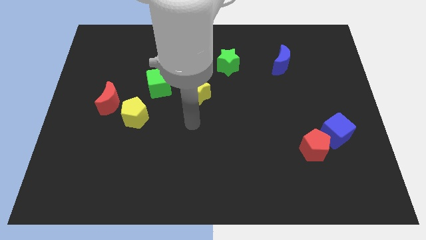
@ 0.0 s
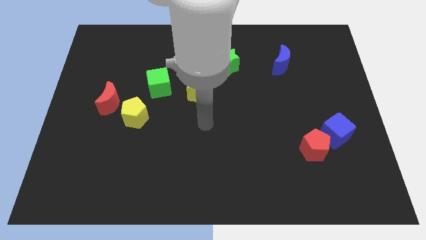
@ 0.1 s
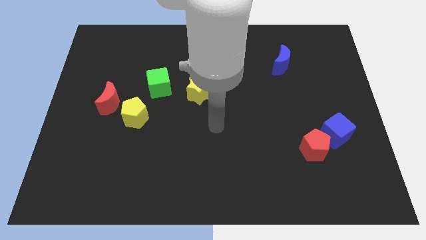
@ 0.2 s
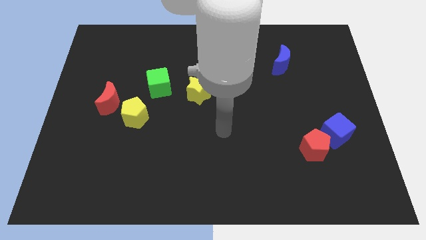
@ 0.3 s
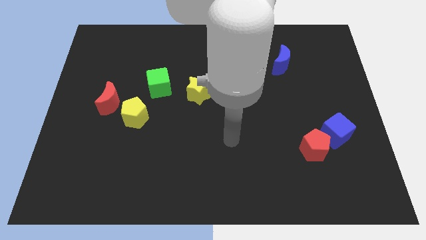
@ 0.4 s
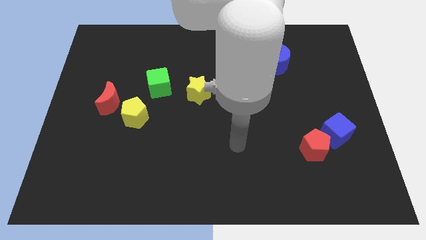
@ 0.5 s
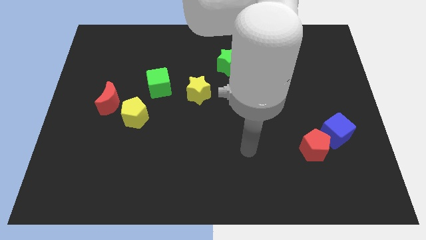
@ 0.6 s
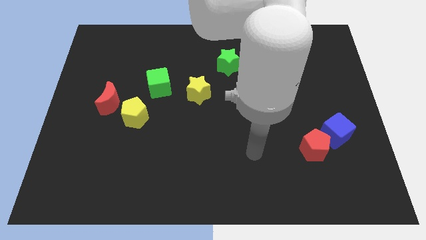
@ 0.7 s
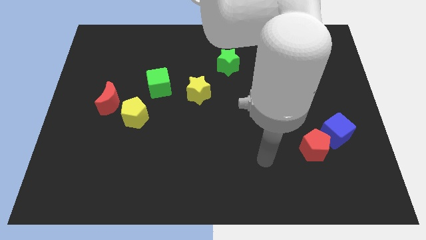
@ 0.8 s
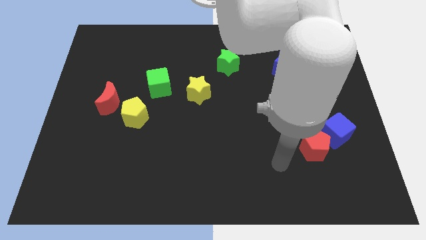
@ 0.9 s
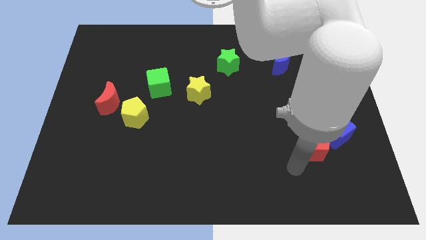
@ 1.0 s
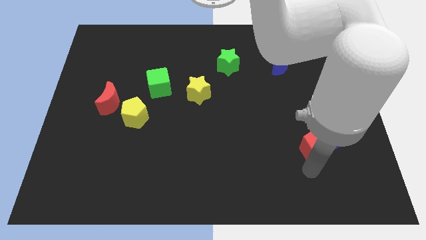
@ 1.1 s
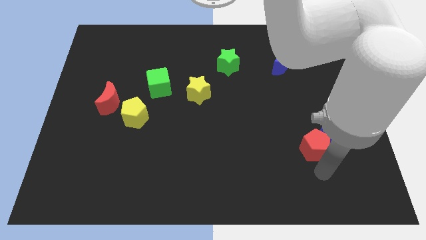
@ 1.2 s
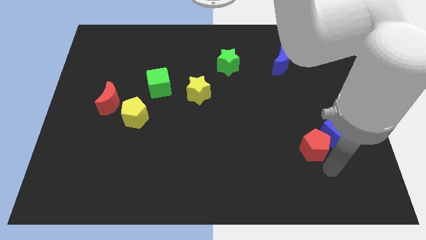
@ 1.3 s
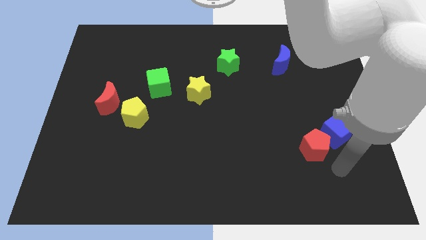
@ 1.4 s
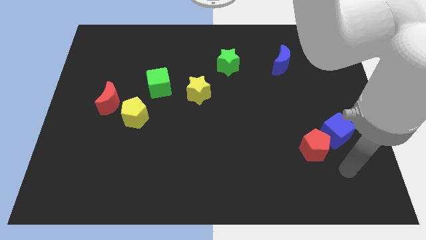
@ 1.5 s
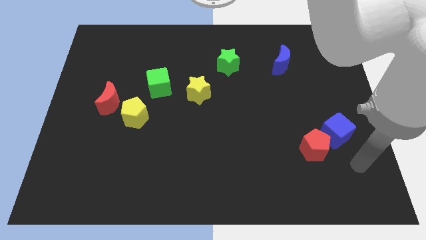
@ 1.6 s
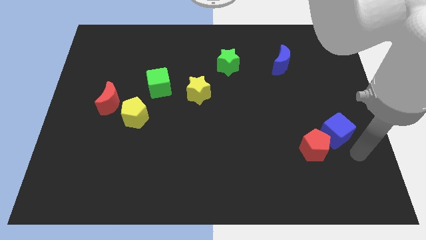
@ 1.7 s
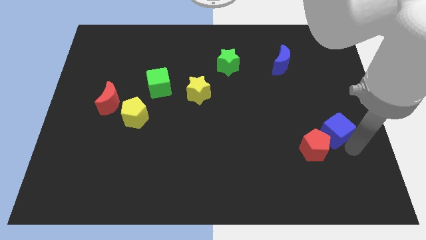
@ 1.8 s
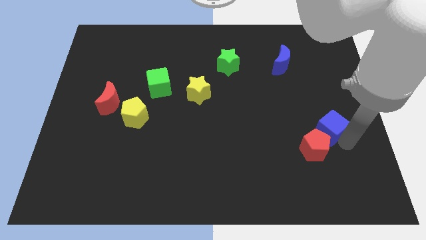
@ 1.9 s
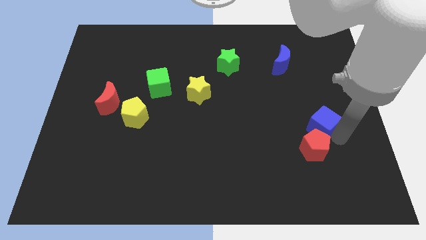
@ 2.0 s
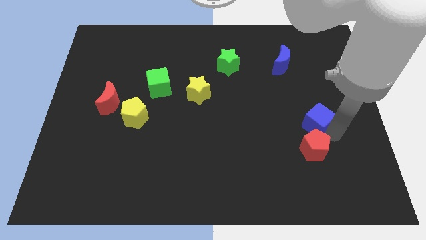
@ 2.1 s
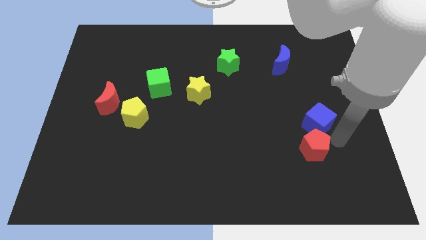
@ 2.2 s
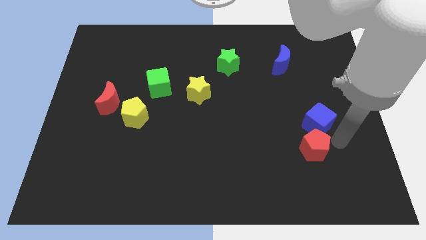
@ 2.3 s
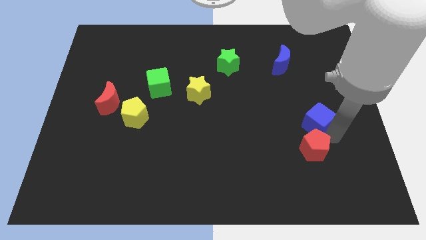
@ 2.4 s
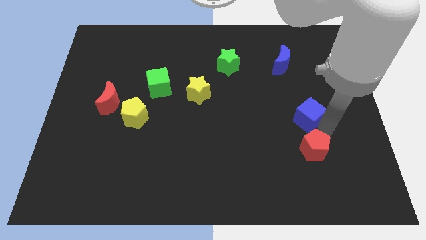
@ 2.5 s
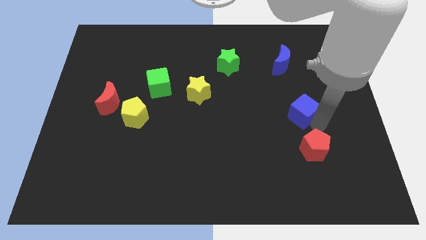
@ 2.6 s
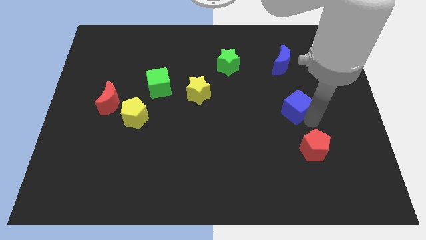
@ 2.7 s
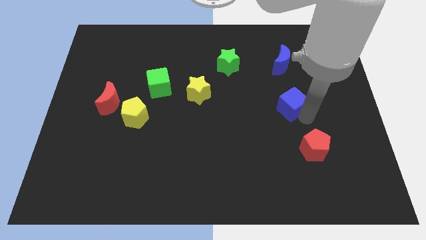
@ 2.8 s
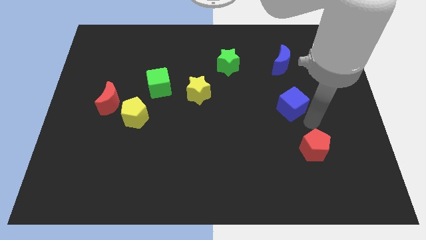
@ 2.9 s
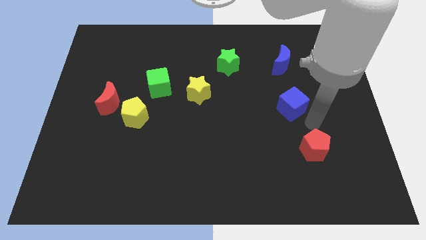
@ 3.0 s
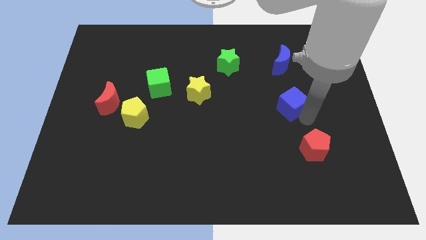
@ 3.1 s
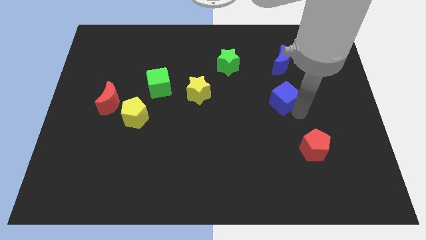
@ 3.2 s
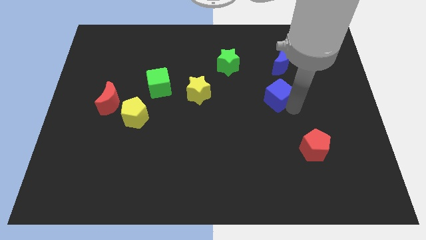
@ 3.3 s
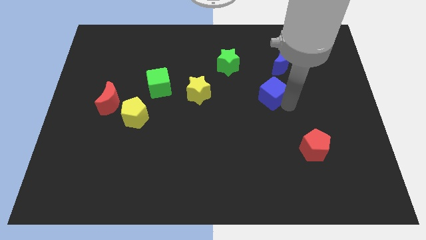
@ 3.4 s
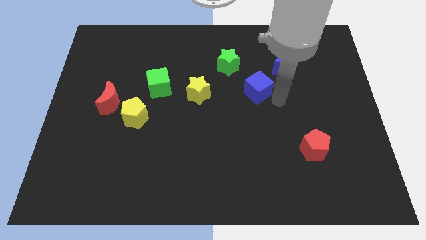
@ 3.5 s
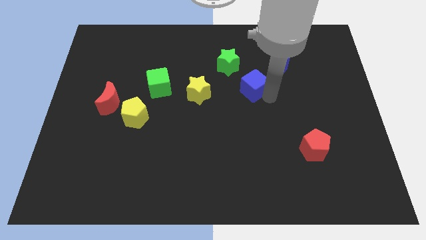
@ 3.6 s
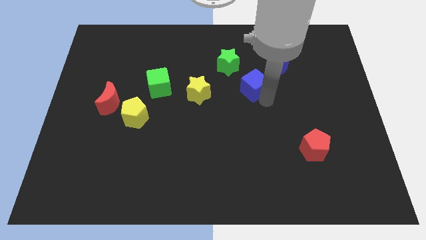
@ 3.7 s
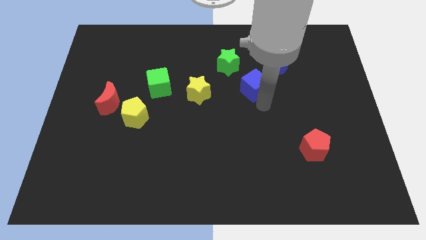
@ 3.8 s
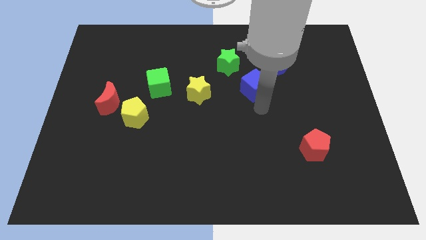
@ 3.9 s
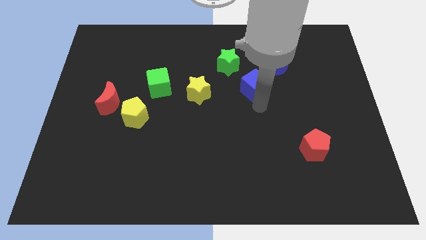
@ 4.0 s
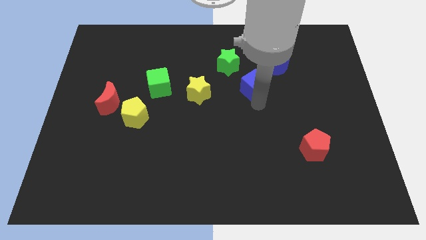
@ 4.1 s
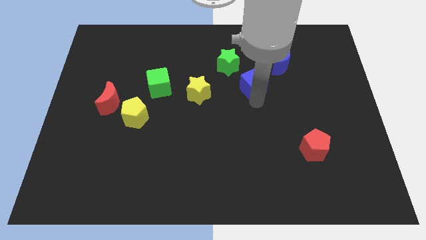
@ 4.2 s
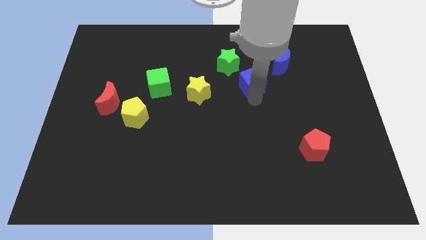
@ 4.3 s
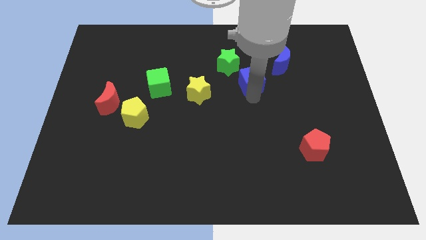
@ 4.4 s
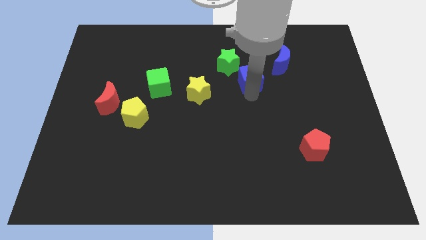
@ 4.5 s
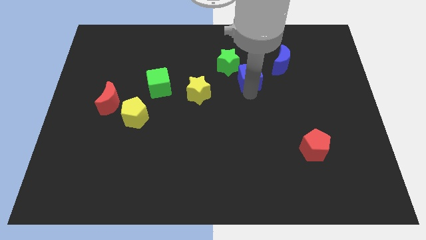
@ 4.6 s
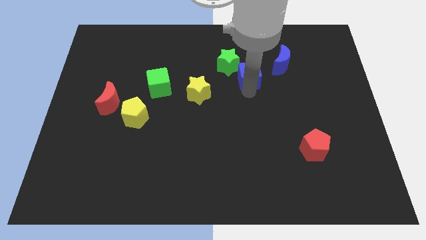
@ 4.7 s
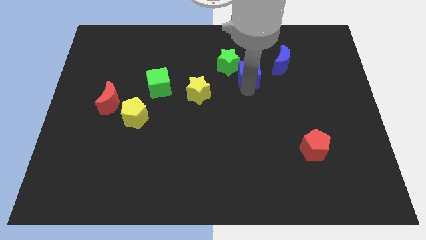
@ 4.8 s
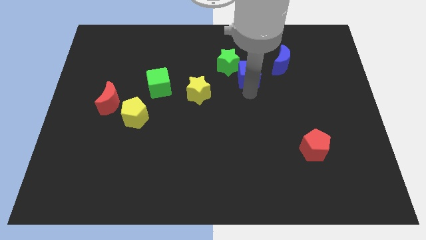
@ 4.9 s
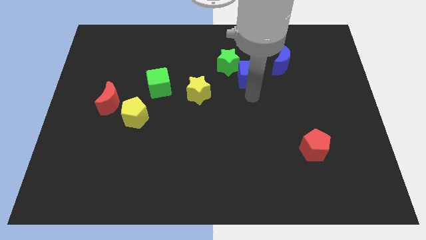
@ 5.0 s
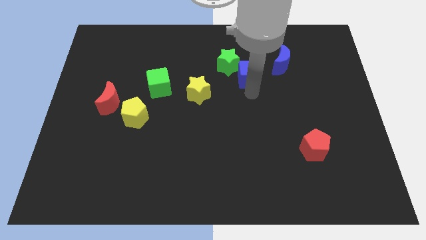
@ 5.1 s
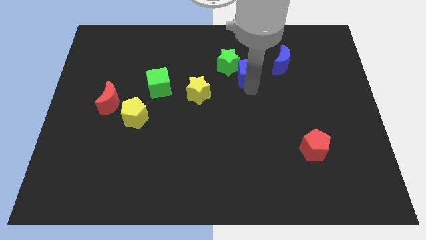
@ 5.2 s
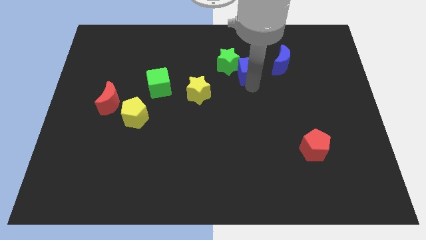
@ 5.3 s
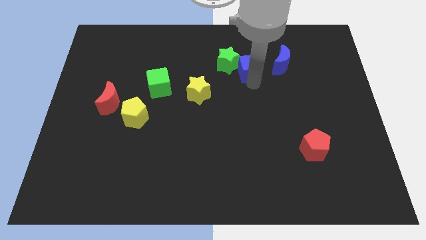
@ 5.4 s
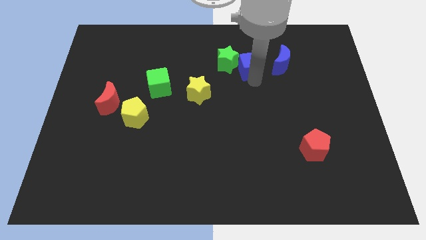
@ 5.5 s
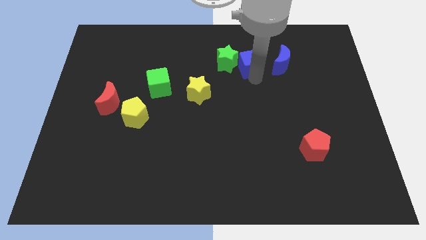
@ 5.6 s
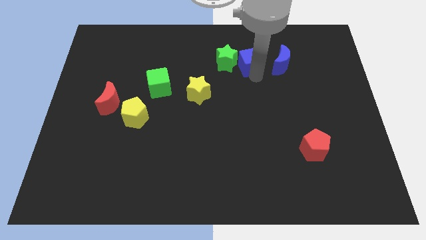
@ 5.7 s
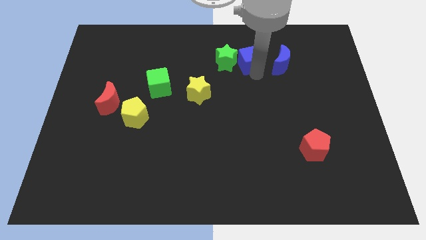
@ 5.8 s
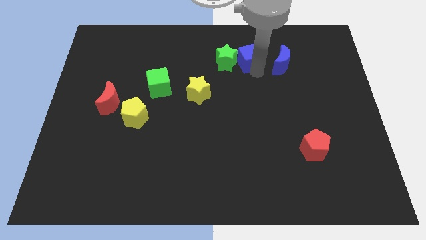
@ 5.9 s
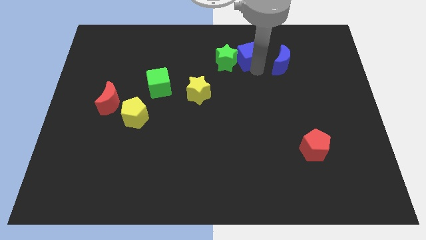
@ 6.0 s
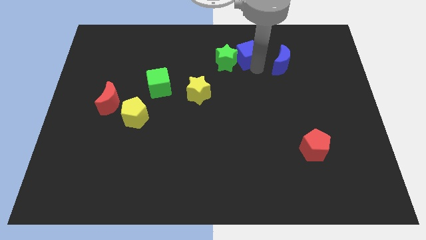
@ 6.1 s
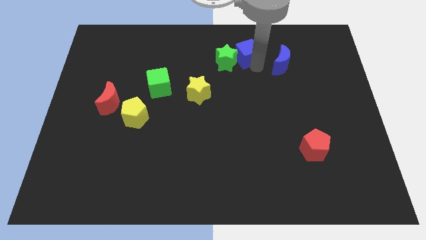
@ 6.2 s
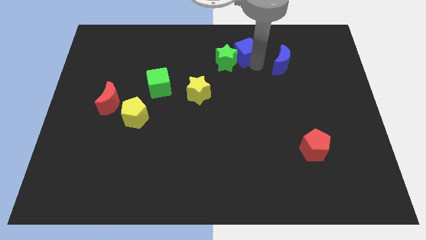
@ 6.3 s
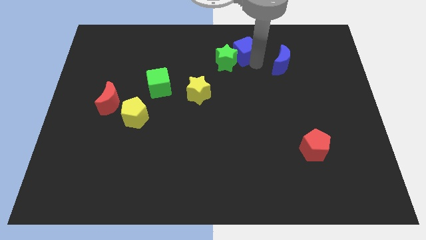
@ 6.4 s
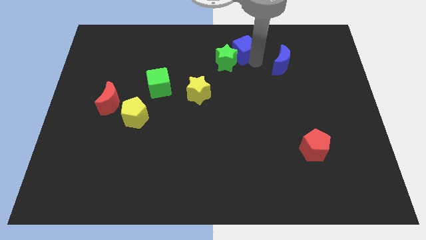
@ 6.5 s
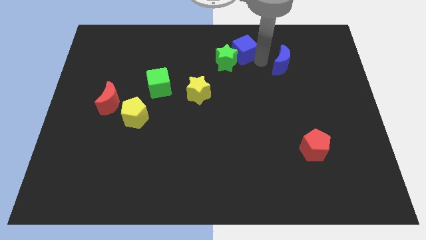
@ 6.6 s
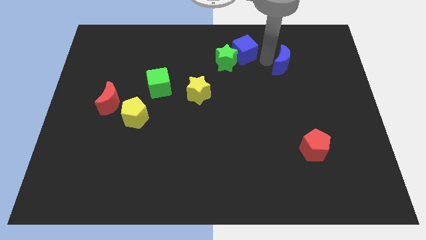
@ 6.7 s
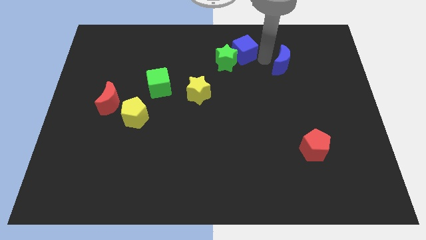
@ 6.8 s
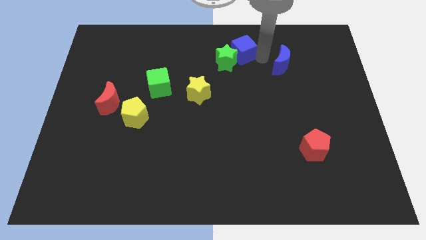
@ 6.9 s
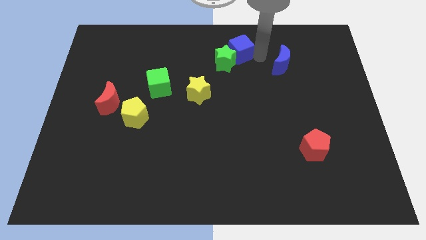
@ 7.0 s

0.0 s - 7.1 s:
push the blue cube to the towards your base
